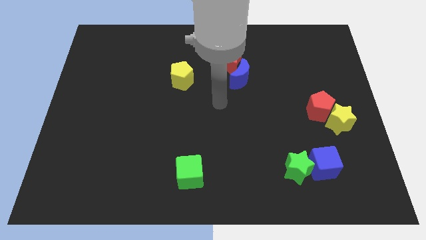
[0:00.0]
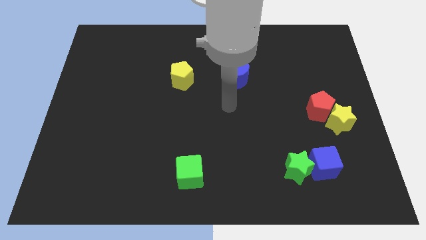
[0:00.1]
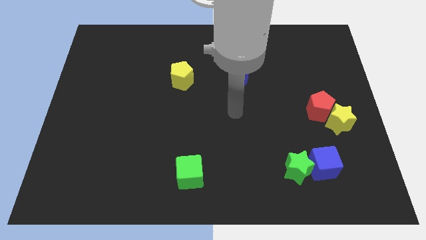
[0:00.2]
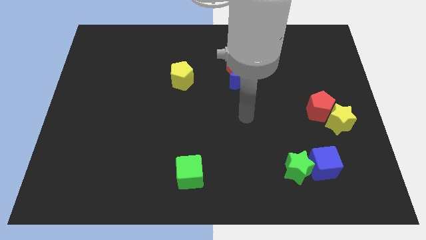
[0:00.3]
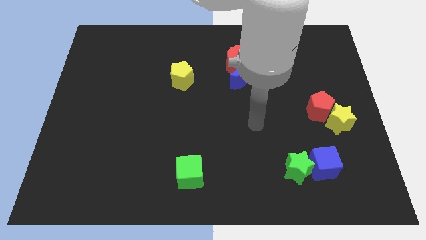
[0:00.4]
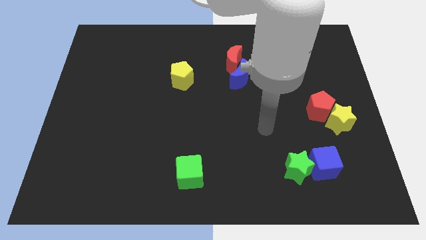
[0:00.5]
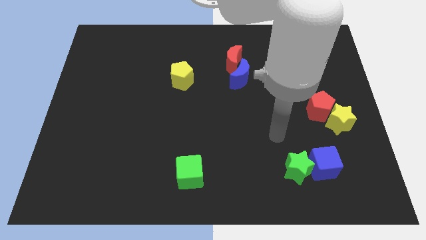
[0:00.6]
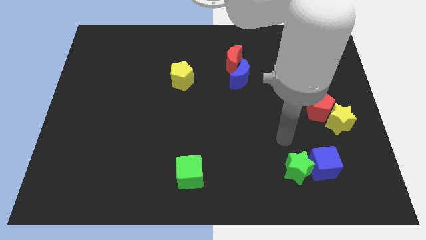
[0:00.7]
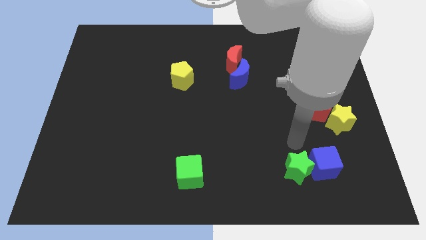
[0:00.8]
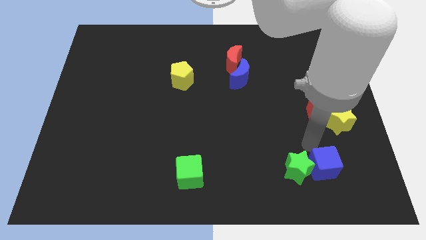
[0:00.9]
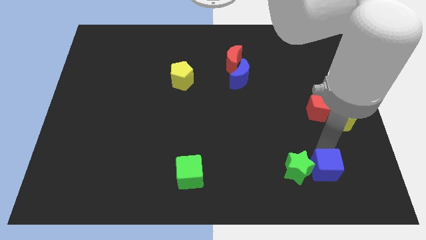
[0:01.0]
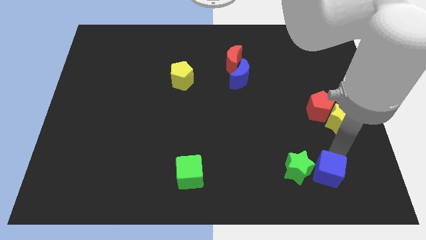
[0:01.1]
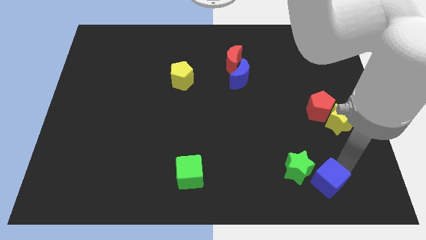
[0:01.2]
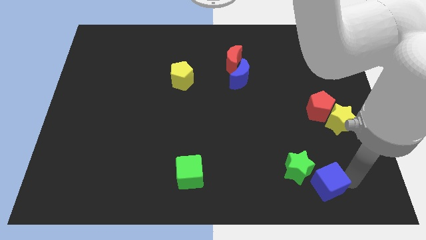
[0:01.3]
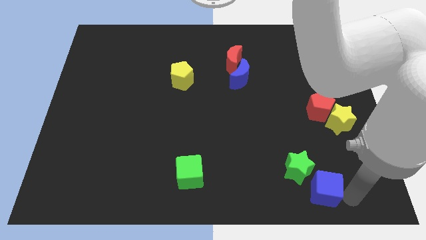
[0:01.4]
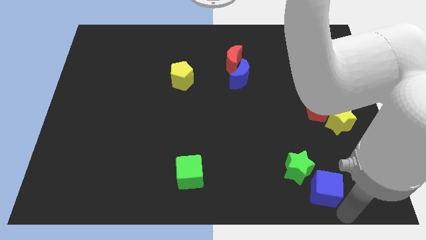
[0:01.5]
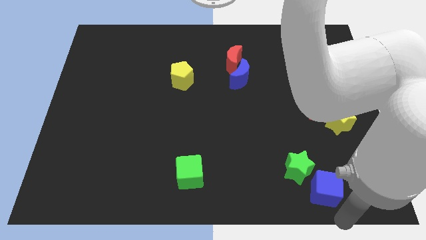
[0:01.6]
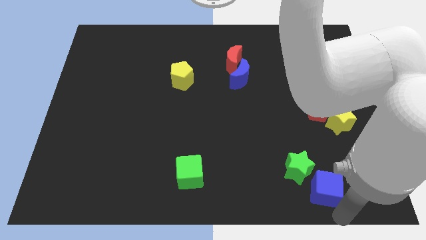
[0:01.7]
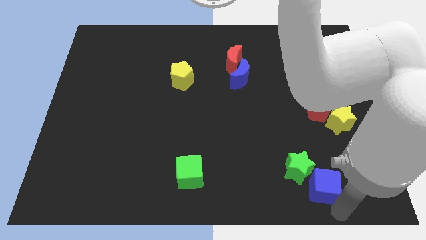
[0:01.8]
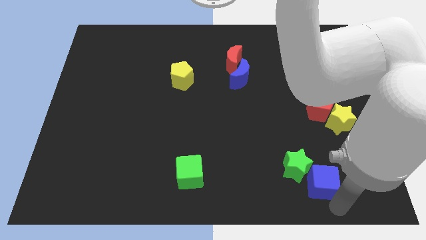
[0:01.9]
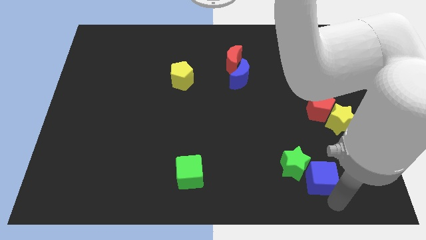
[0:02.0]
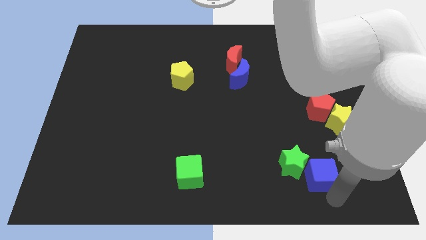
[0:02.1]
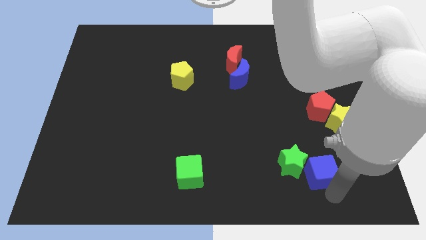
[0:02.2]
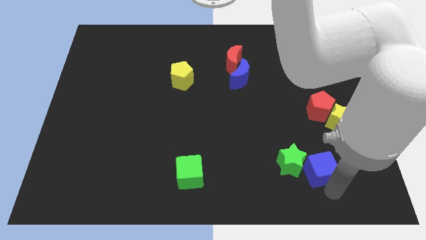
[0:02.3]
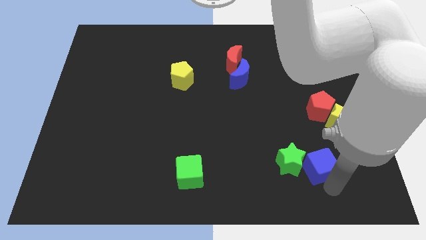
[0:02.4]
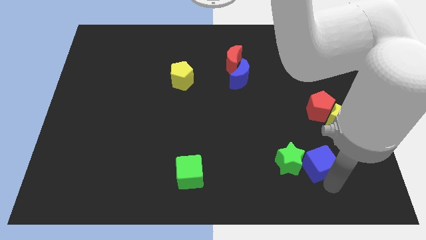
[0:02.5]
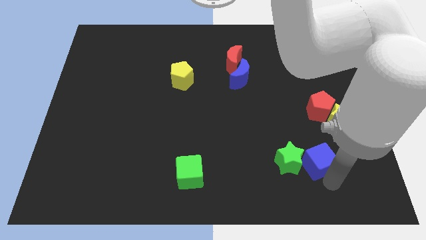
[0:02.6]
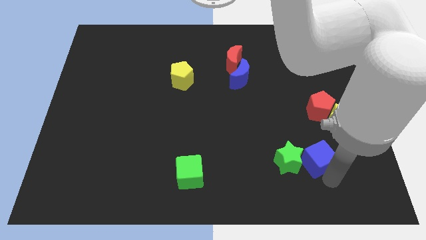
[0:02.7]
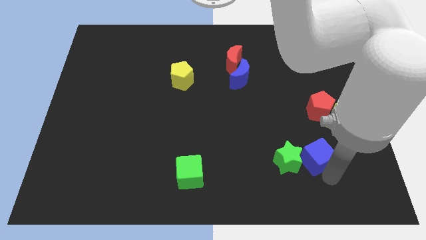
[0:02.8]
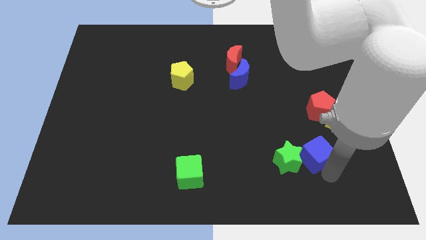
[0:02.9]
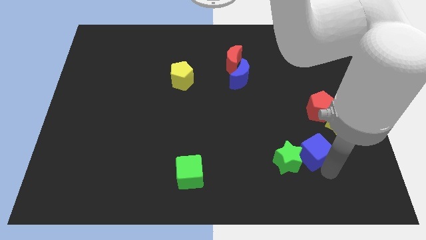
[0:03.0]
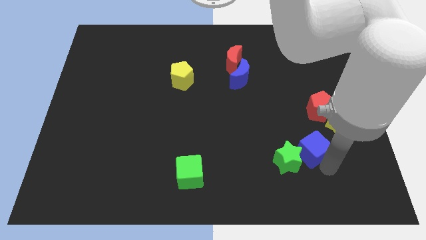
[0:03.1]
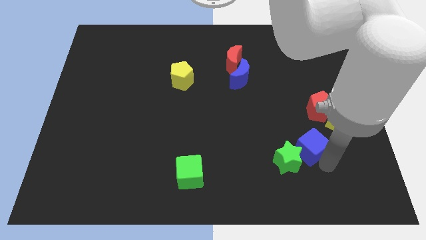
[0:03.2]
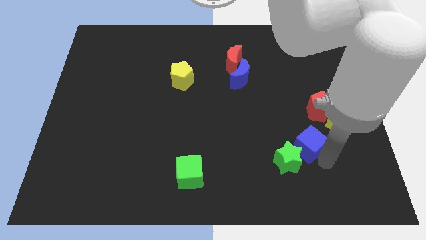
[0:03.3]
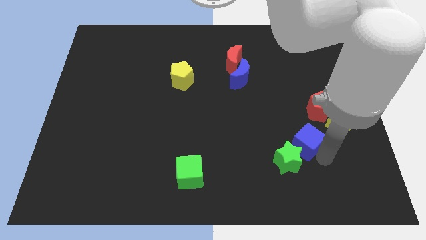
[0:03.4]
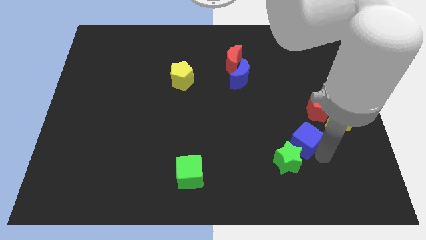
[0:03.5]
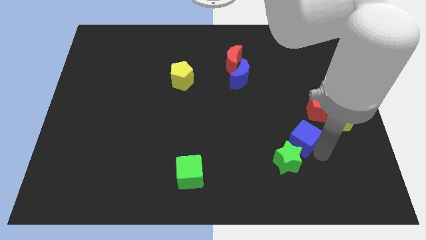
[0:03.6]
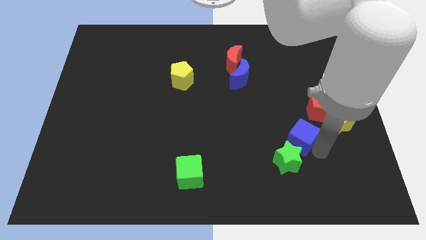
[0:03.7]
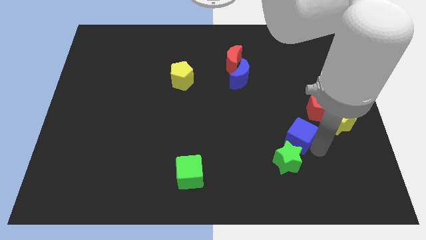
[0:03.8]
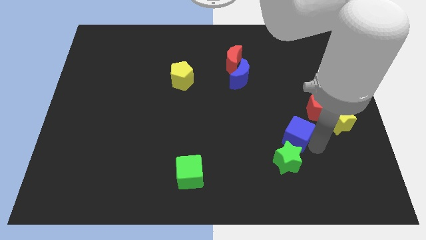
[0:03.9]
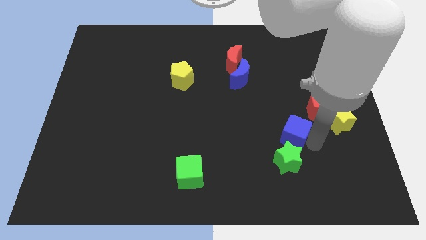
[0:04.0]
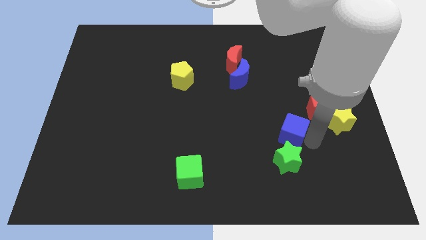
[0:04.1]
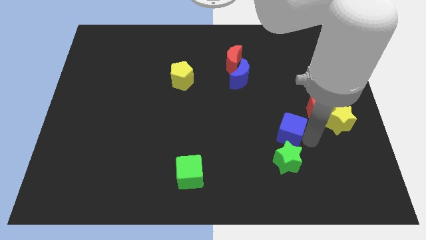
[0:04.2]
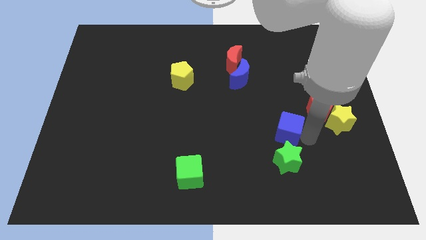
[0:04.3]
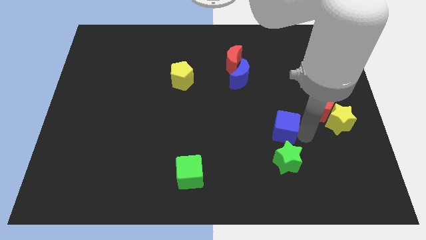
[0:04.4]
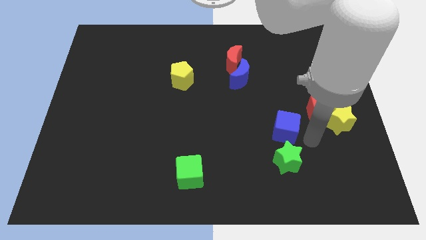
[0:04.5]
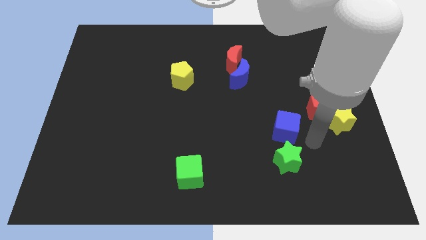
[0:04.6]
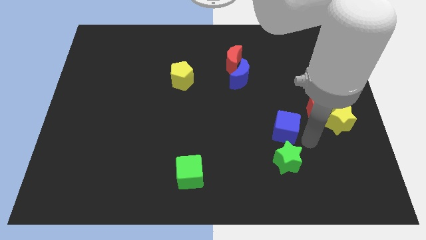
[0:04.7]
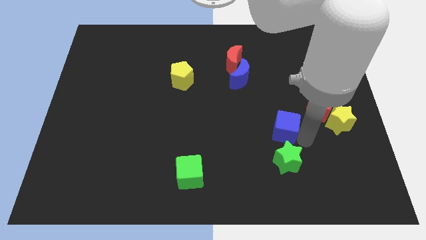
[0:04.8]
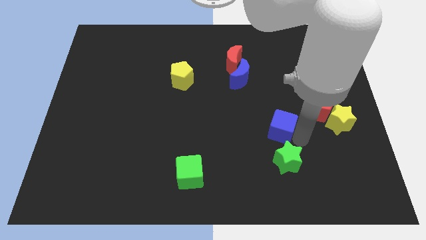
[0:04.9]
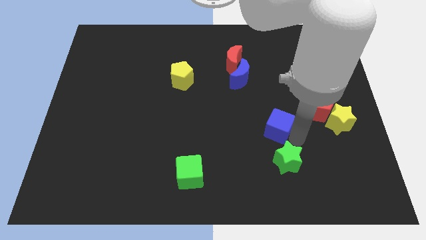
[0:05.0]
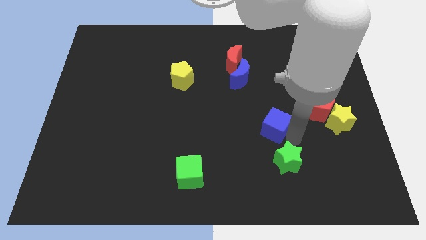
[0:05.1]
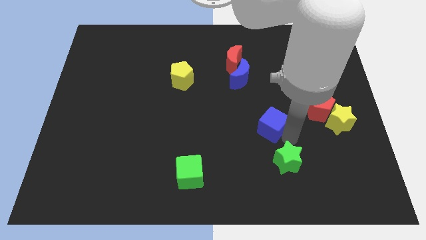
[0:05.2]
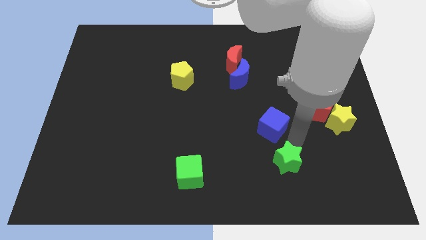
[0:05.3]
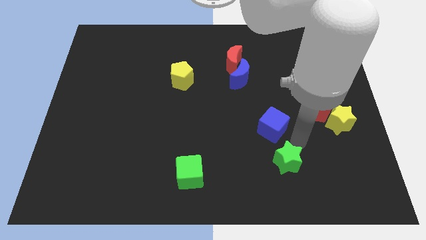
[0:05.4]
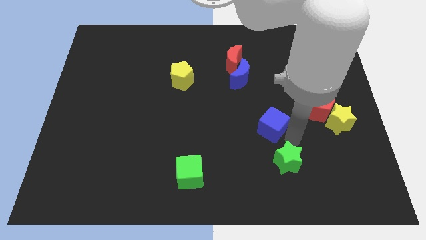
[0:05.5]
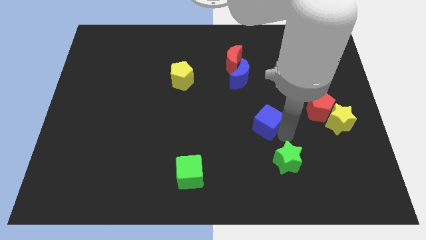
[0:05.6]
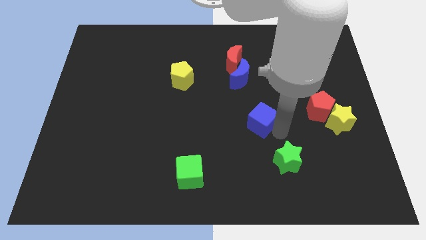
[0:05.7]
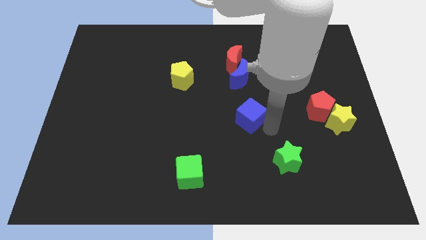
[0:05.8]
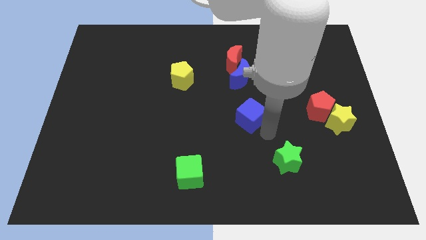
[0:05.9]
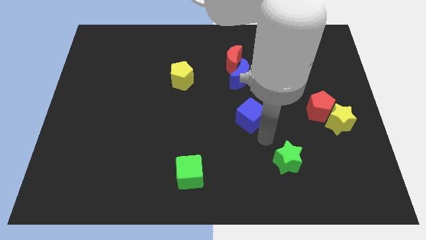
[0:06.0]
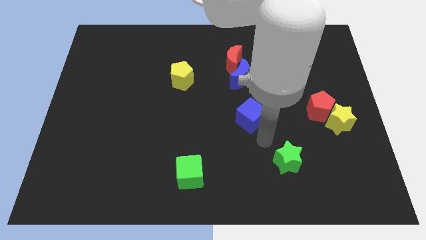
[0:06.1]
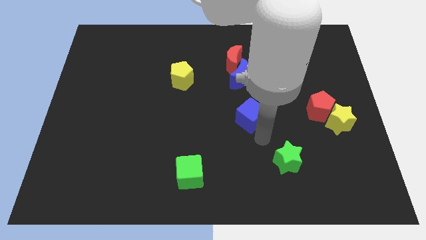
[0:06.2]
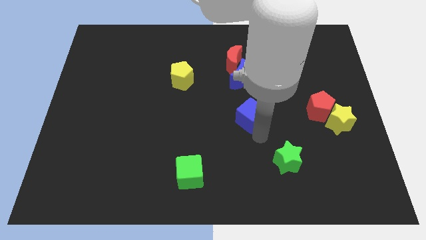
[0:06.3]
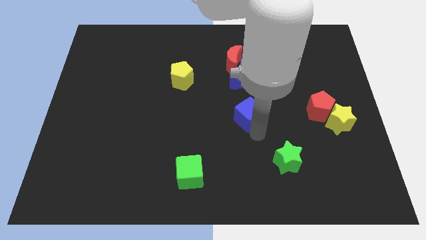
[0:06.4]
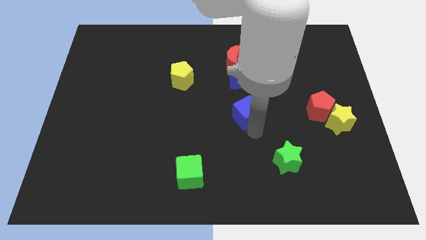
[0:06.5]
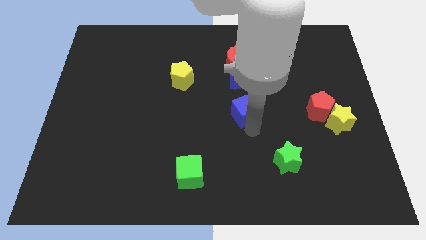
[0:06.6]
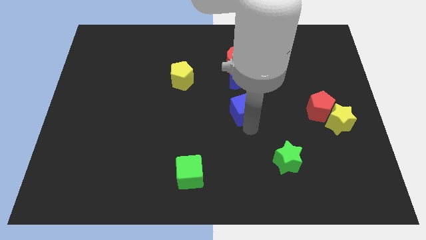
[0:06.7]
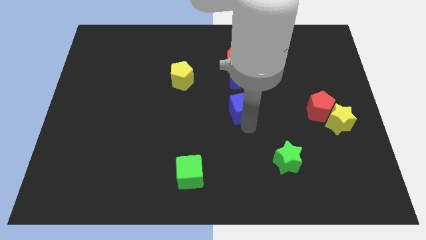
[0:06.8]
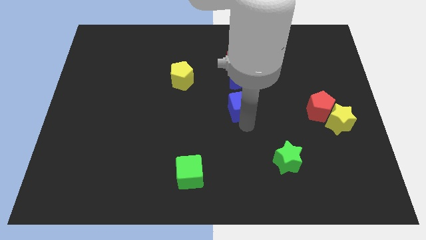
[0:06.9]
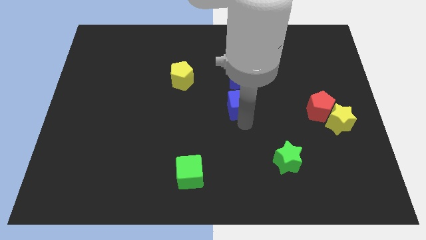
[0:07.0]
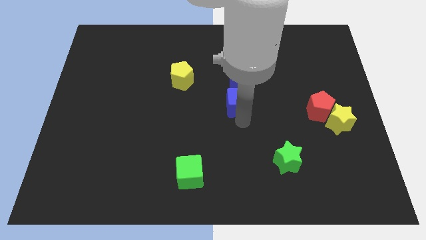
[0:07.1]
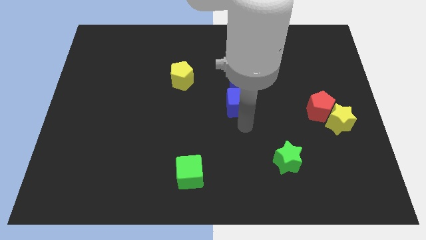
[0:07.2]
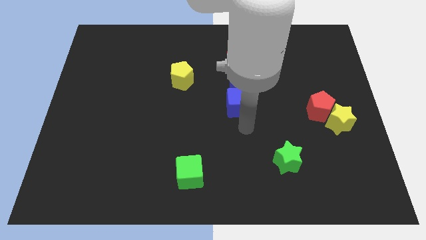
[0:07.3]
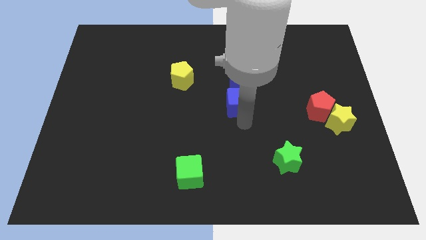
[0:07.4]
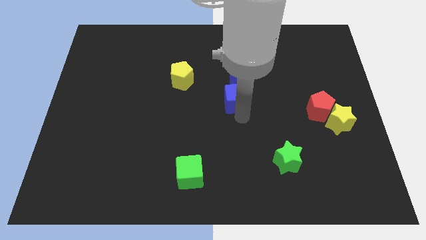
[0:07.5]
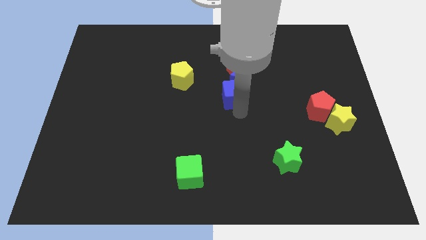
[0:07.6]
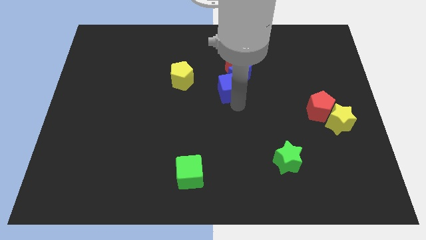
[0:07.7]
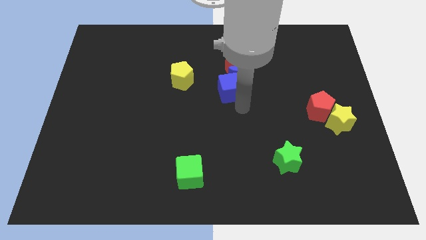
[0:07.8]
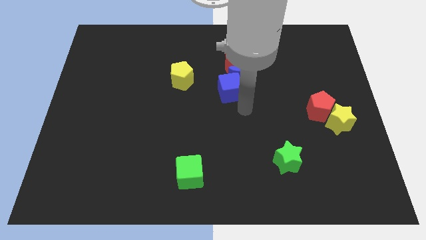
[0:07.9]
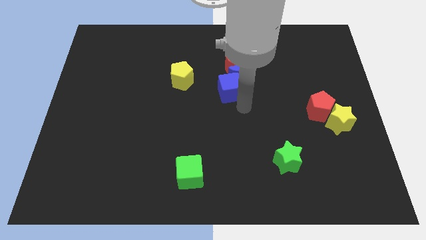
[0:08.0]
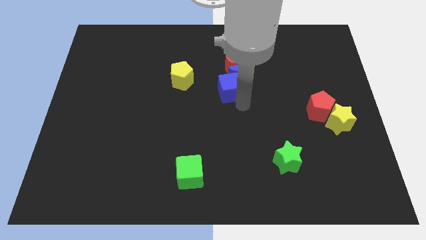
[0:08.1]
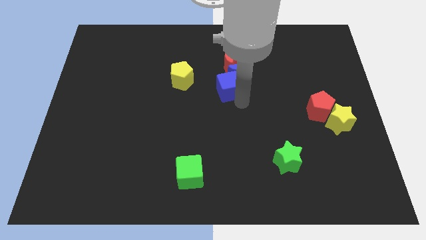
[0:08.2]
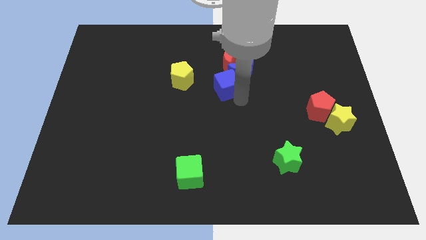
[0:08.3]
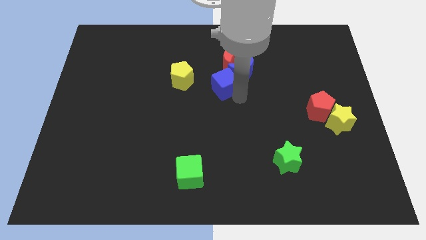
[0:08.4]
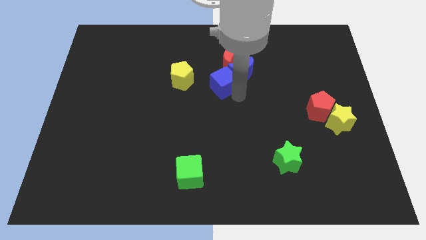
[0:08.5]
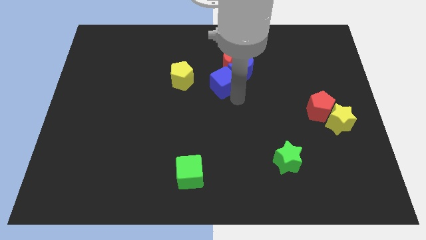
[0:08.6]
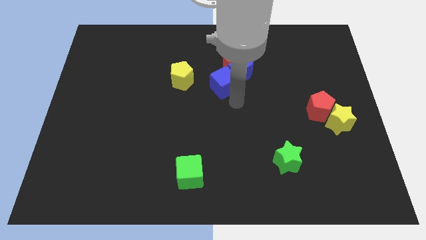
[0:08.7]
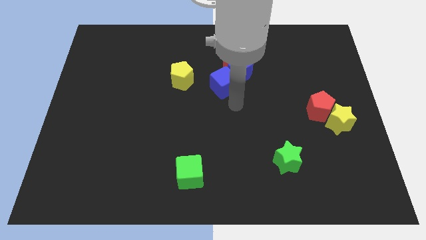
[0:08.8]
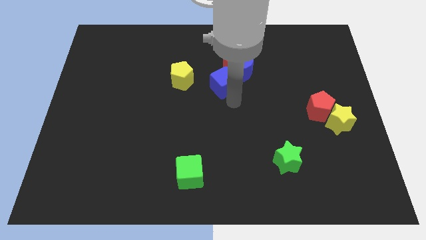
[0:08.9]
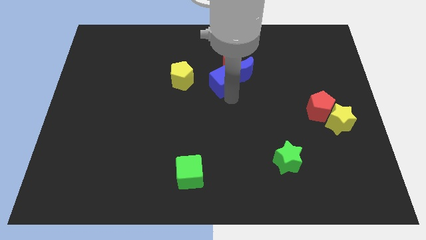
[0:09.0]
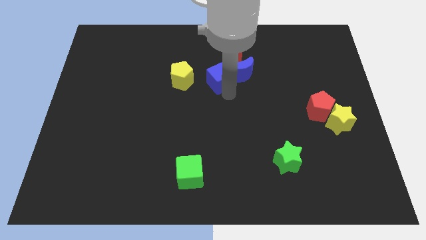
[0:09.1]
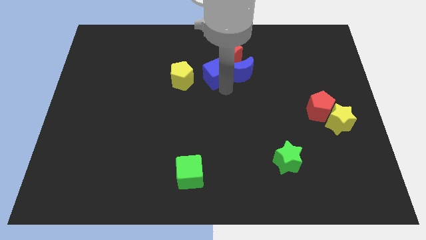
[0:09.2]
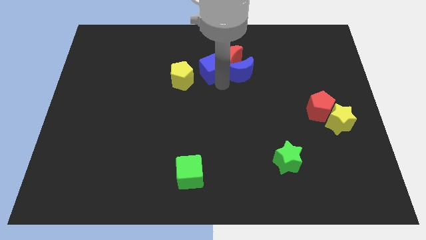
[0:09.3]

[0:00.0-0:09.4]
slide the blue cube to the top right of the yellow pentagon
